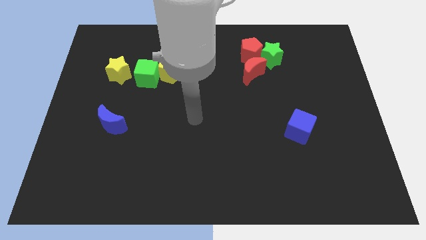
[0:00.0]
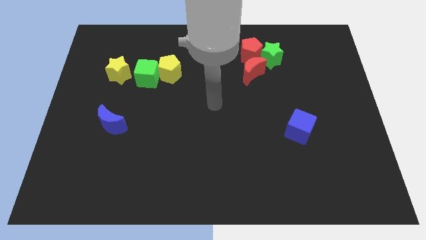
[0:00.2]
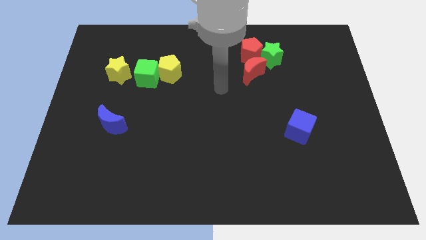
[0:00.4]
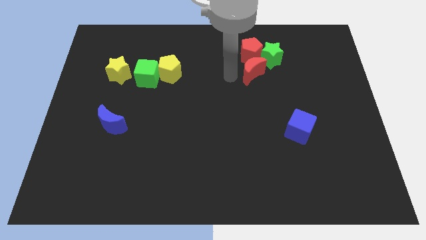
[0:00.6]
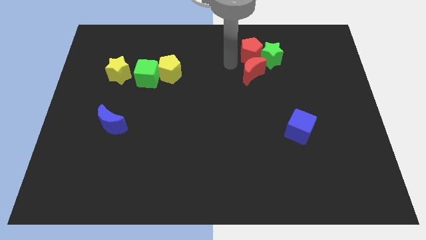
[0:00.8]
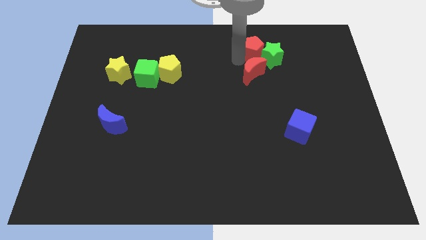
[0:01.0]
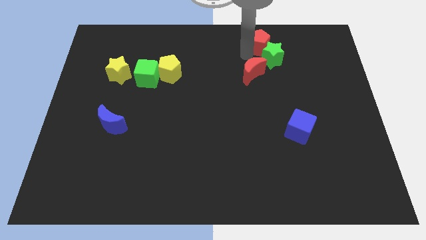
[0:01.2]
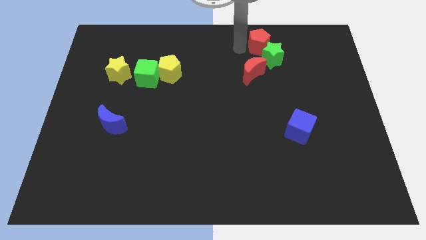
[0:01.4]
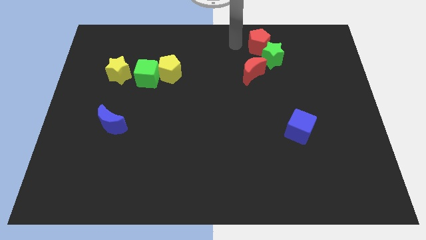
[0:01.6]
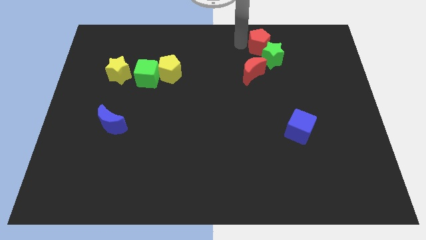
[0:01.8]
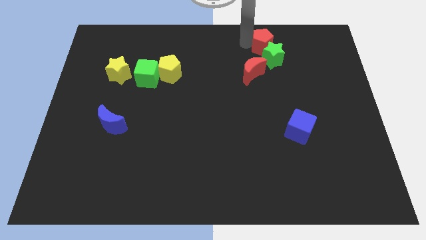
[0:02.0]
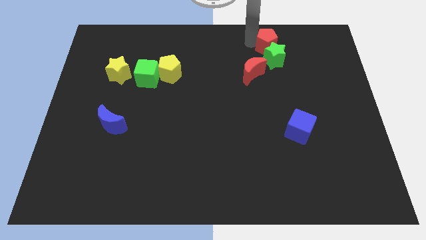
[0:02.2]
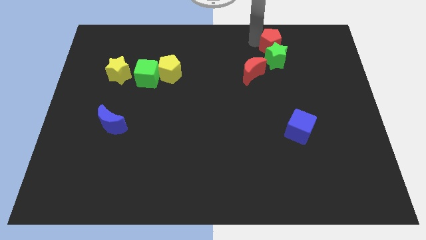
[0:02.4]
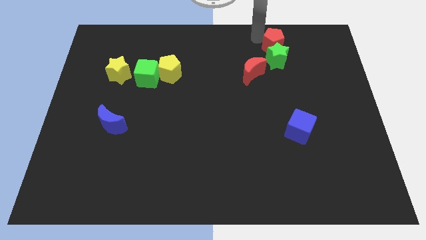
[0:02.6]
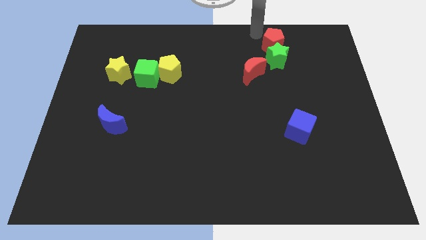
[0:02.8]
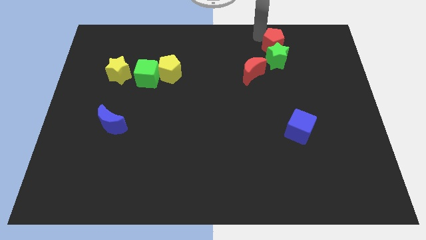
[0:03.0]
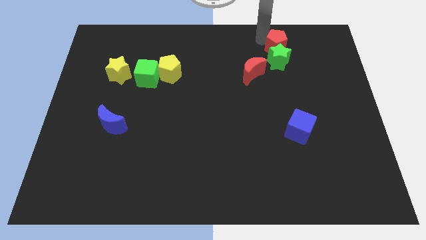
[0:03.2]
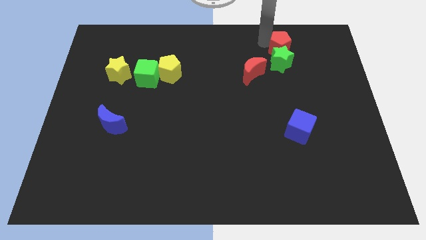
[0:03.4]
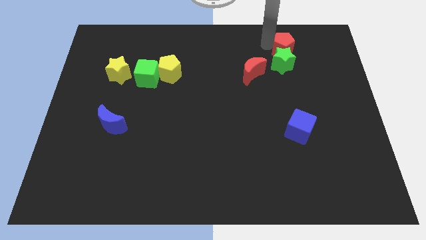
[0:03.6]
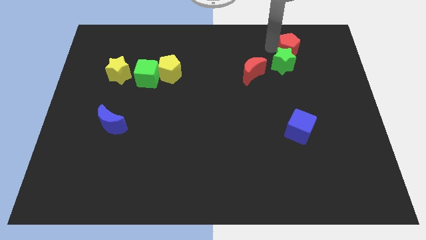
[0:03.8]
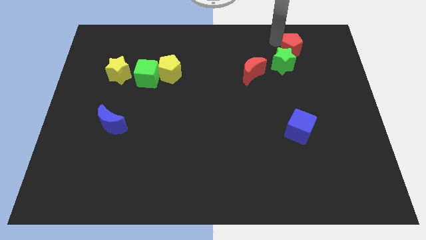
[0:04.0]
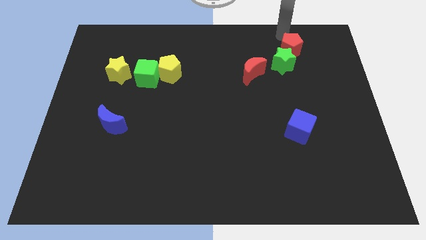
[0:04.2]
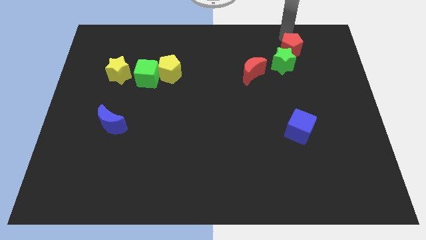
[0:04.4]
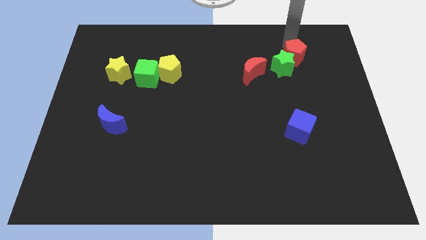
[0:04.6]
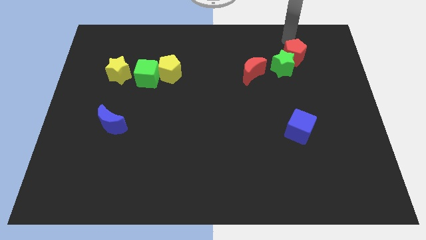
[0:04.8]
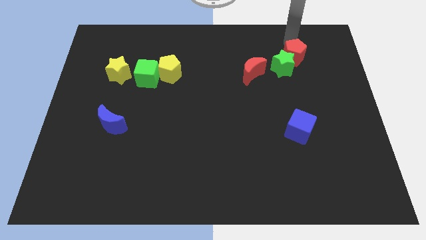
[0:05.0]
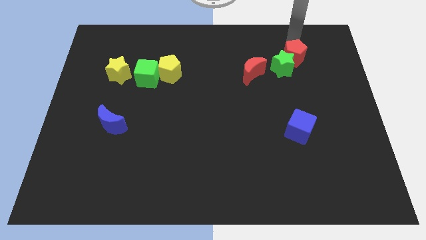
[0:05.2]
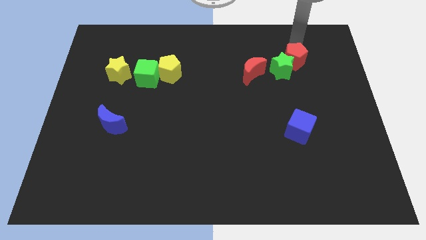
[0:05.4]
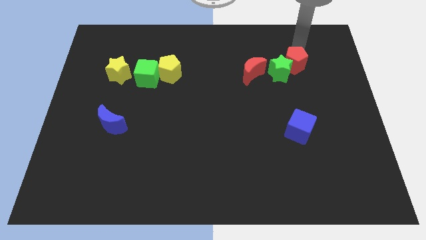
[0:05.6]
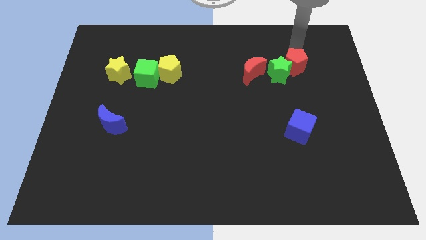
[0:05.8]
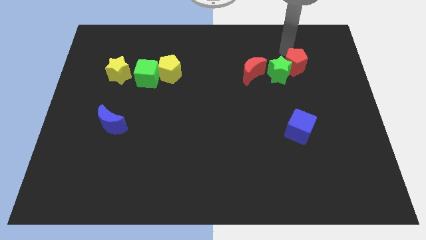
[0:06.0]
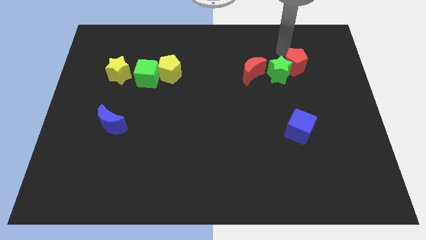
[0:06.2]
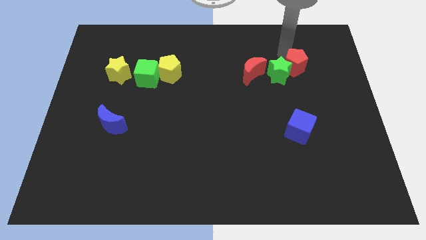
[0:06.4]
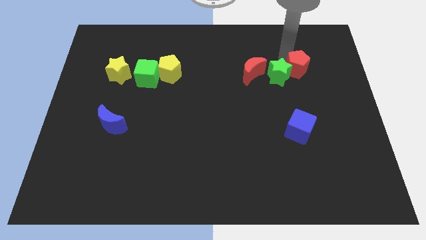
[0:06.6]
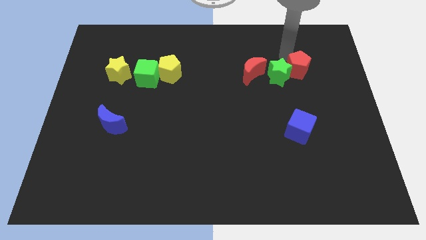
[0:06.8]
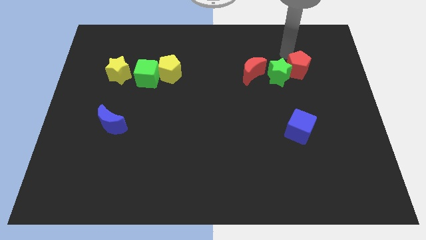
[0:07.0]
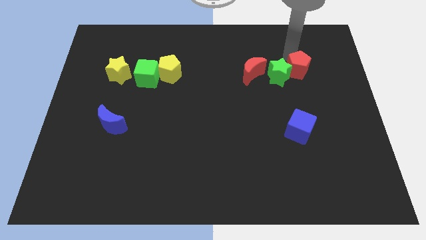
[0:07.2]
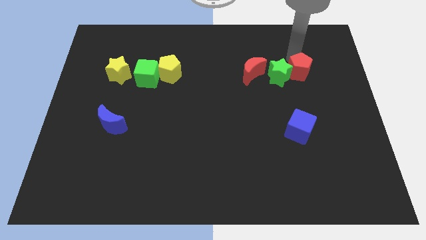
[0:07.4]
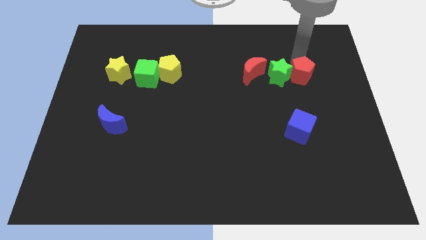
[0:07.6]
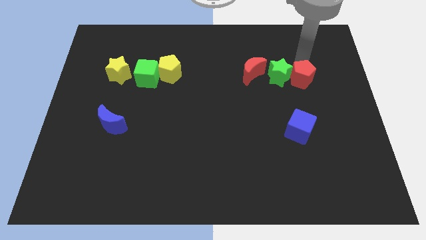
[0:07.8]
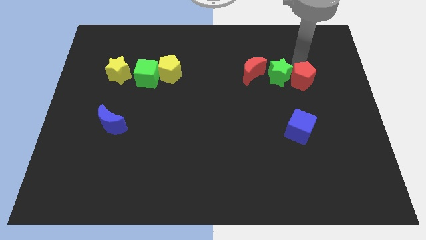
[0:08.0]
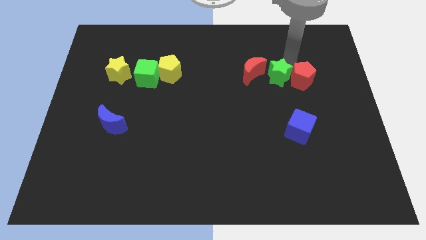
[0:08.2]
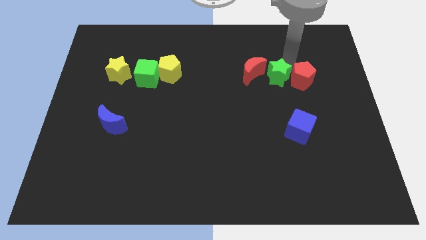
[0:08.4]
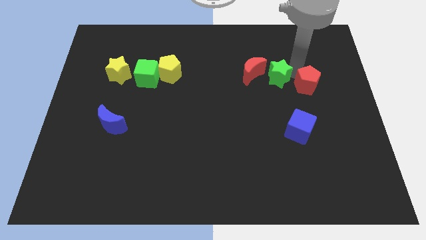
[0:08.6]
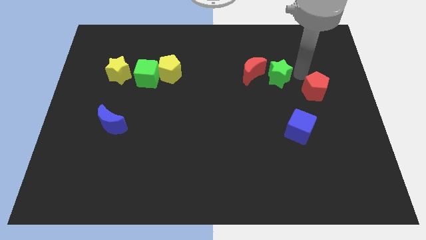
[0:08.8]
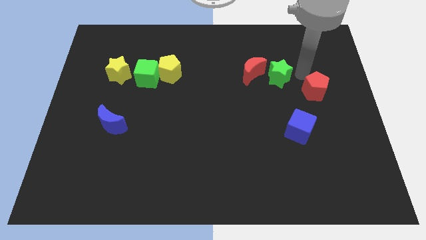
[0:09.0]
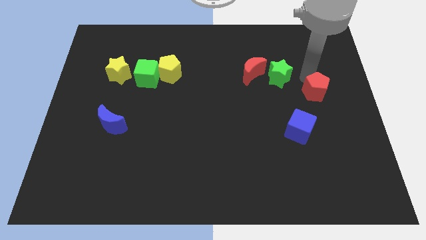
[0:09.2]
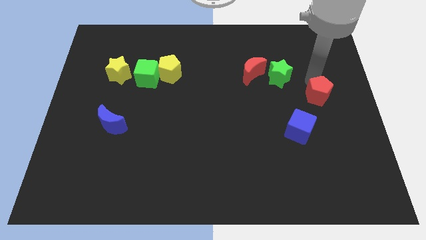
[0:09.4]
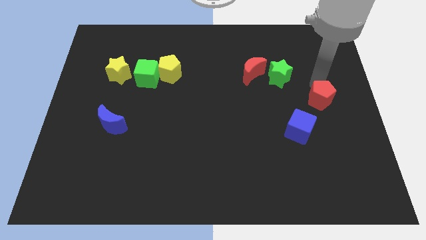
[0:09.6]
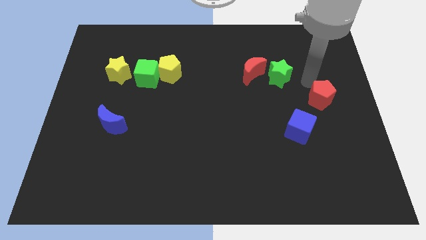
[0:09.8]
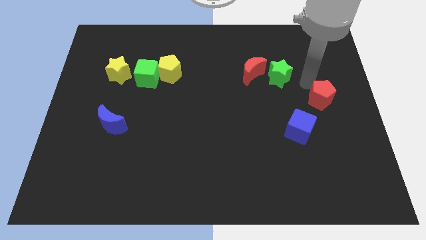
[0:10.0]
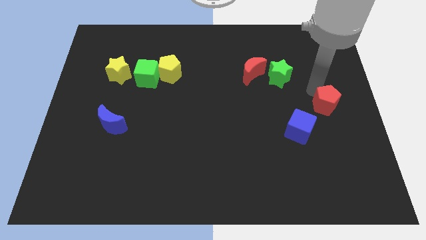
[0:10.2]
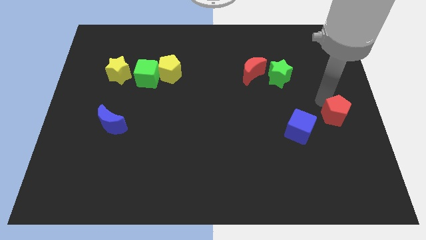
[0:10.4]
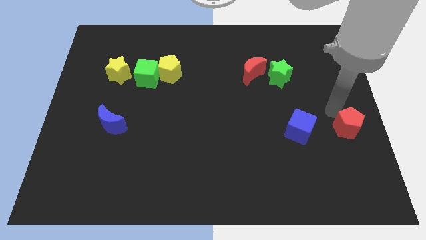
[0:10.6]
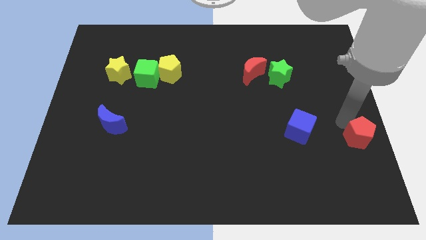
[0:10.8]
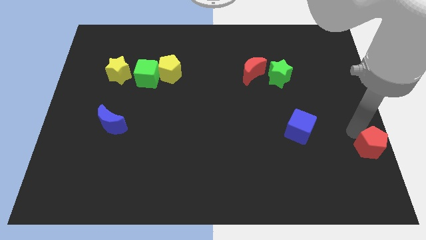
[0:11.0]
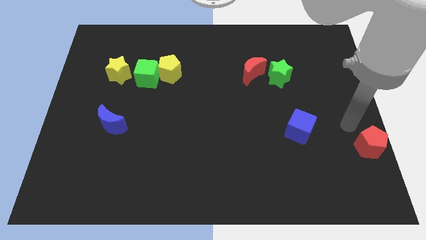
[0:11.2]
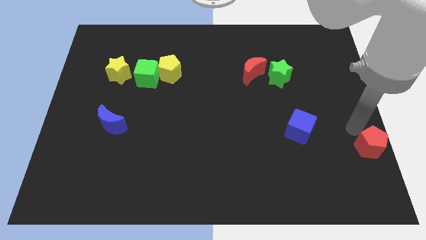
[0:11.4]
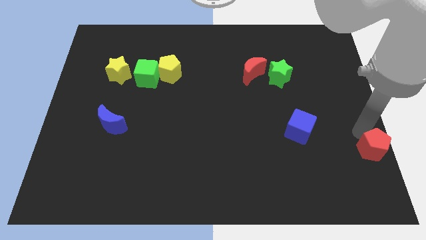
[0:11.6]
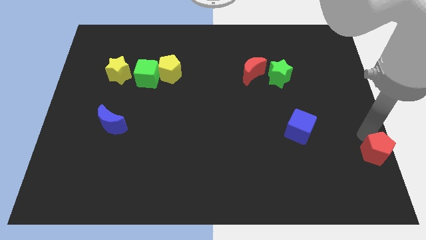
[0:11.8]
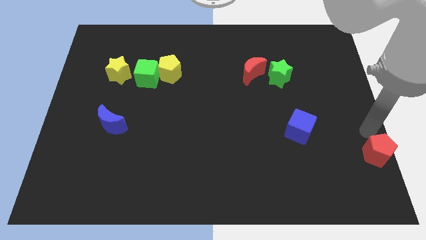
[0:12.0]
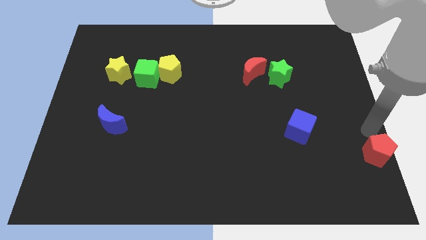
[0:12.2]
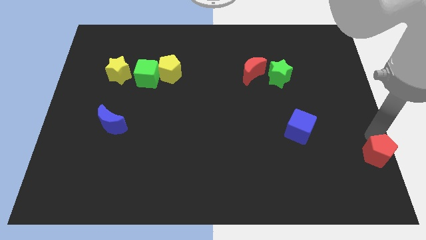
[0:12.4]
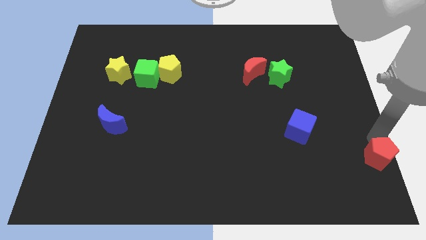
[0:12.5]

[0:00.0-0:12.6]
push the red pentagon to the bottom right of the board
